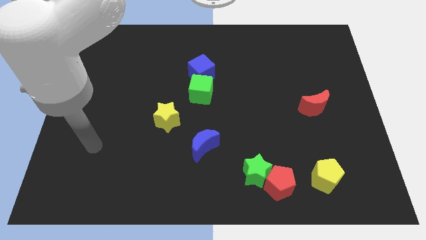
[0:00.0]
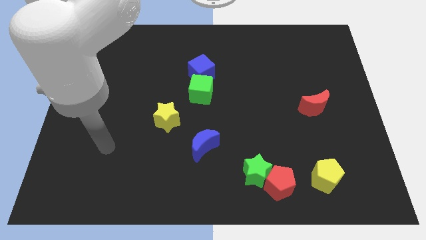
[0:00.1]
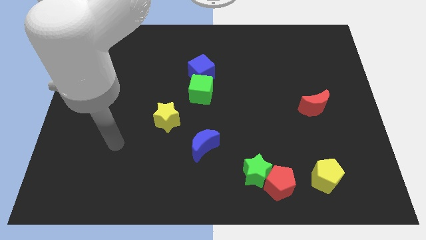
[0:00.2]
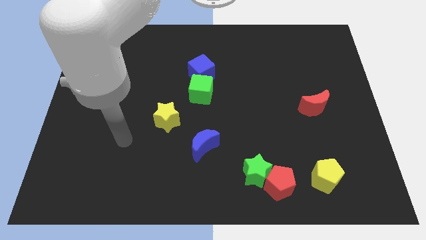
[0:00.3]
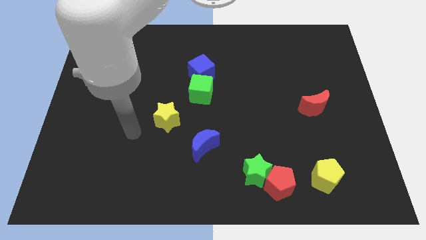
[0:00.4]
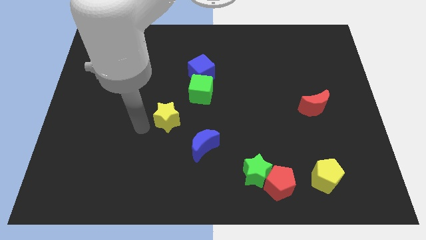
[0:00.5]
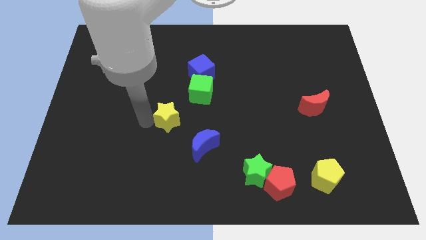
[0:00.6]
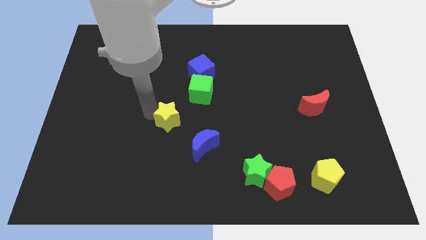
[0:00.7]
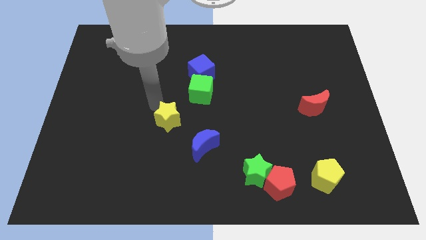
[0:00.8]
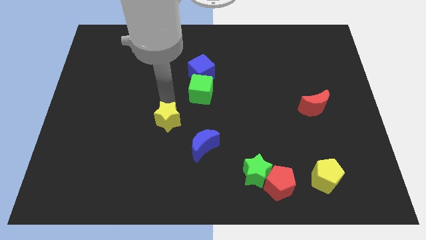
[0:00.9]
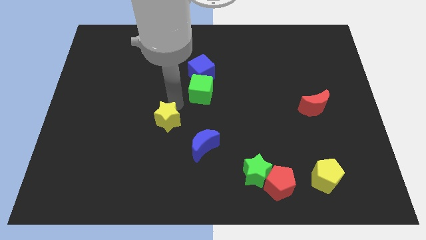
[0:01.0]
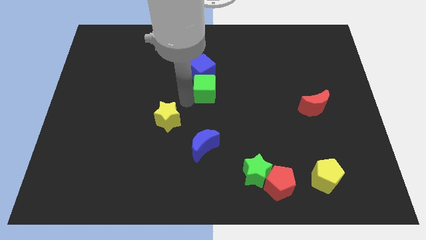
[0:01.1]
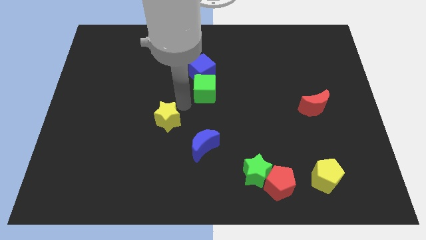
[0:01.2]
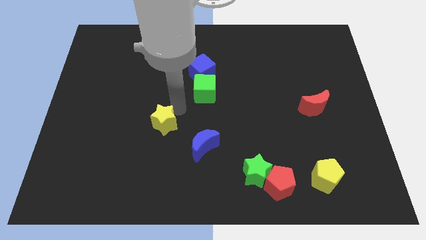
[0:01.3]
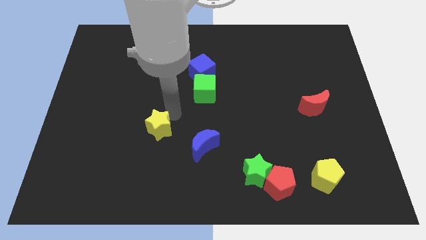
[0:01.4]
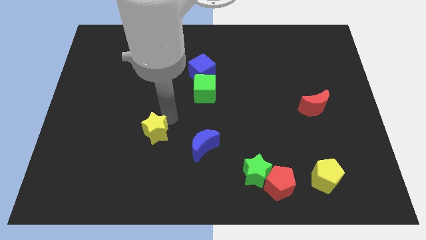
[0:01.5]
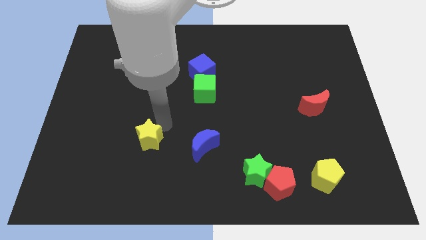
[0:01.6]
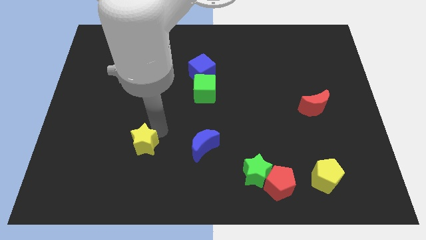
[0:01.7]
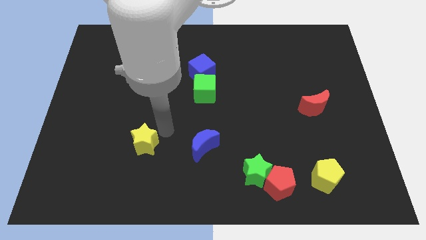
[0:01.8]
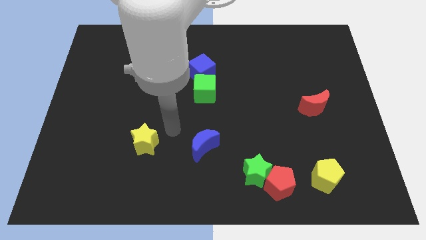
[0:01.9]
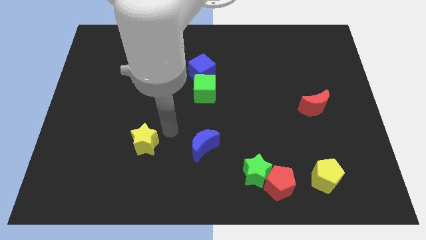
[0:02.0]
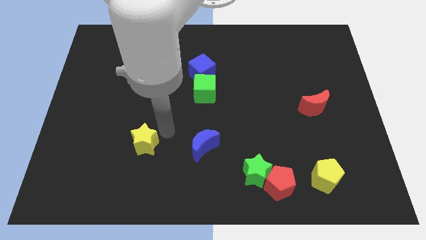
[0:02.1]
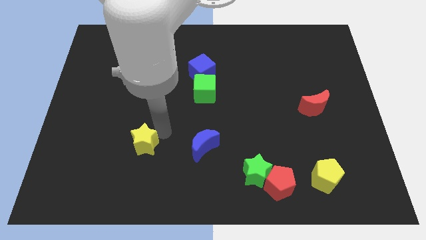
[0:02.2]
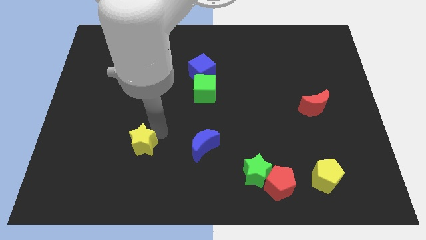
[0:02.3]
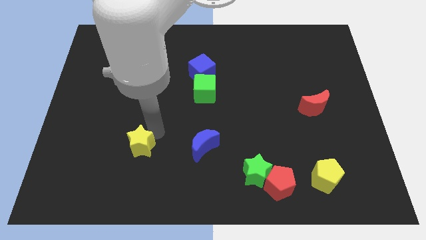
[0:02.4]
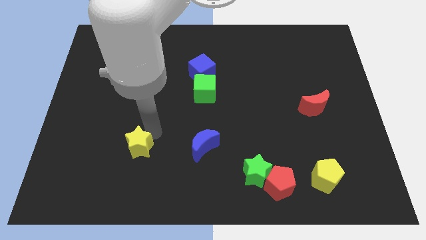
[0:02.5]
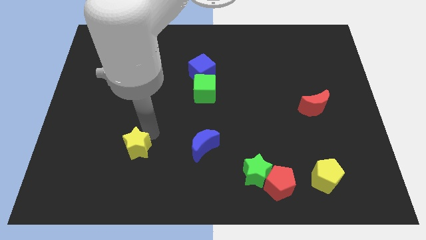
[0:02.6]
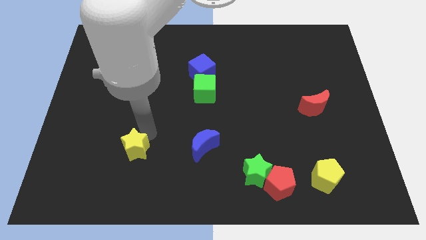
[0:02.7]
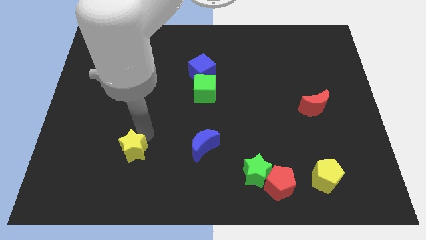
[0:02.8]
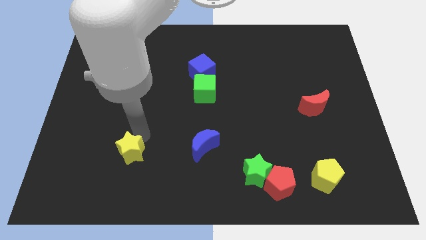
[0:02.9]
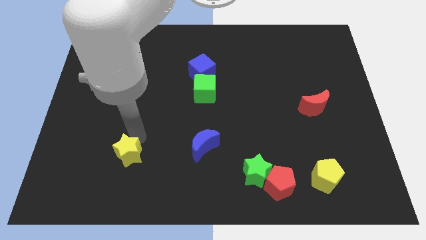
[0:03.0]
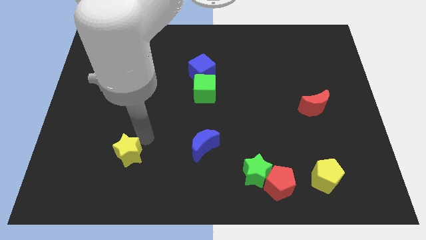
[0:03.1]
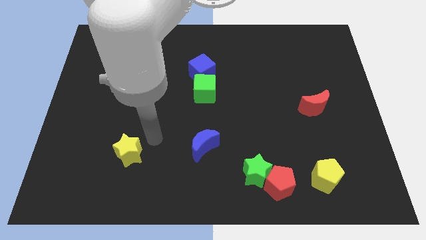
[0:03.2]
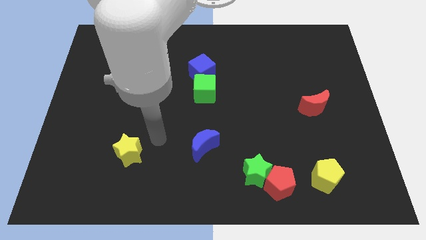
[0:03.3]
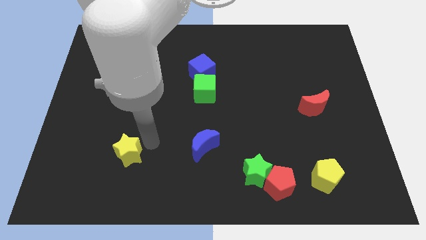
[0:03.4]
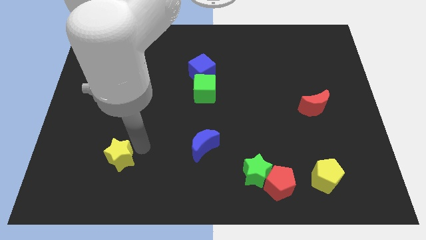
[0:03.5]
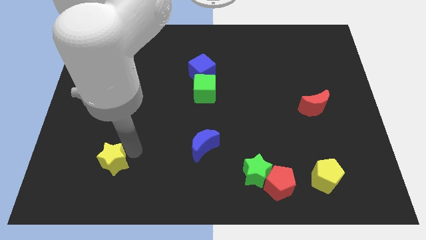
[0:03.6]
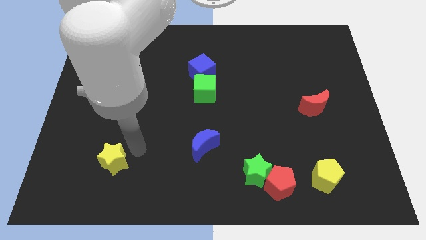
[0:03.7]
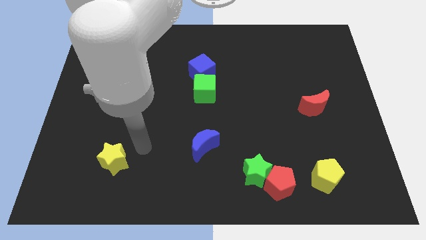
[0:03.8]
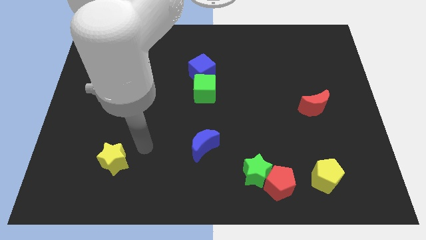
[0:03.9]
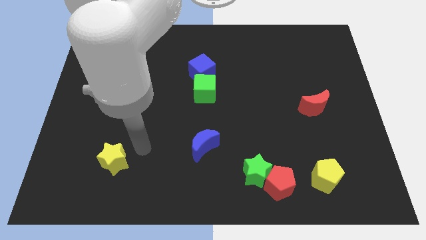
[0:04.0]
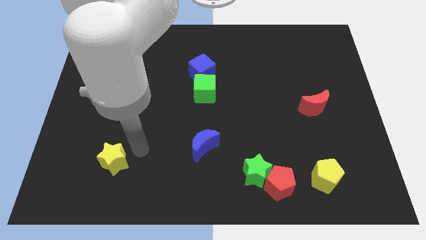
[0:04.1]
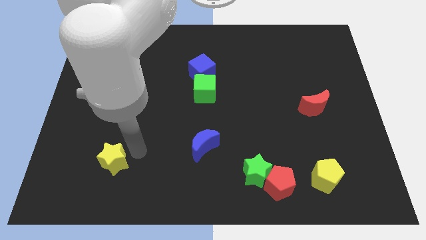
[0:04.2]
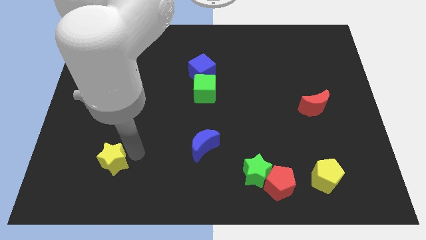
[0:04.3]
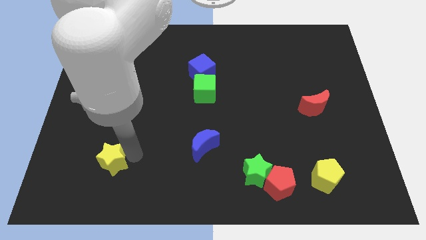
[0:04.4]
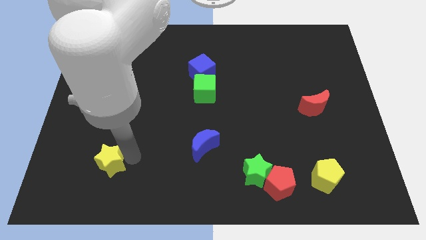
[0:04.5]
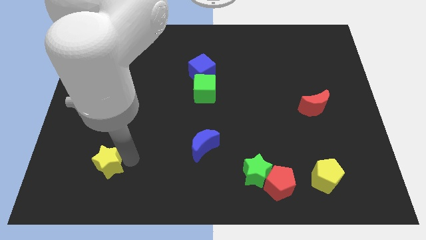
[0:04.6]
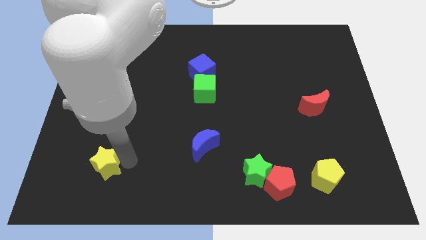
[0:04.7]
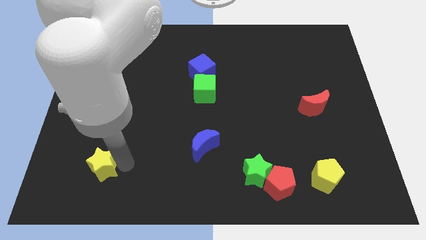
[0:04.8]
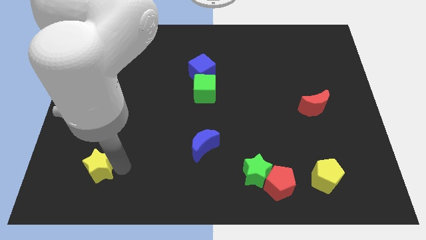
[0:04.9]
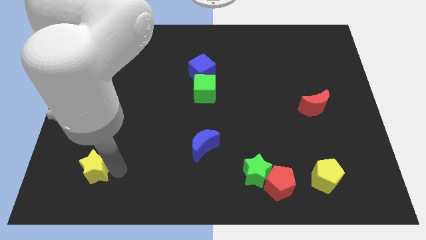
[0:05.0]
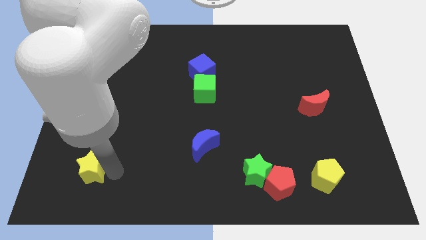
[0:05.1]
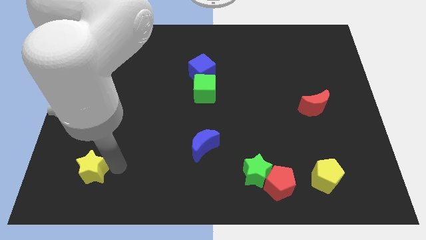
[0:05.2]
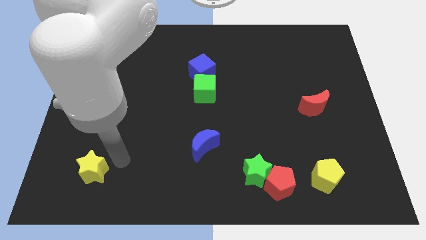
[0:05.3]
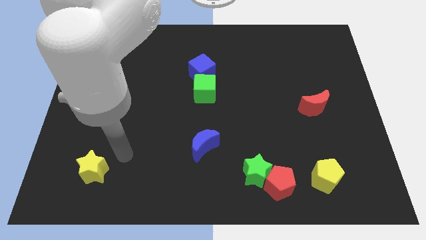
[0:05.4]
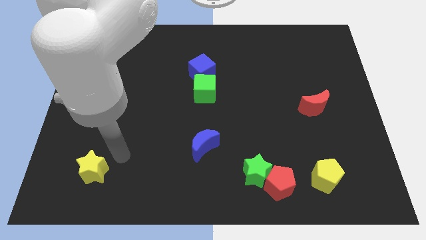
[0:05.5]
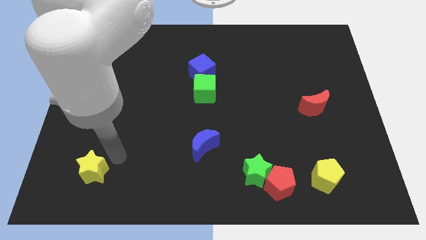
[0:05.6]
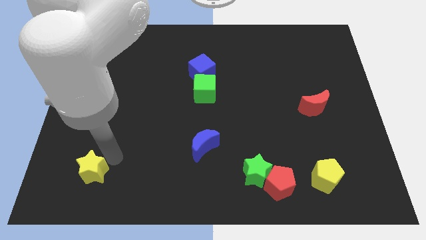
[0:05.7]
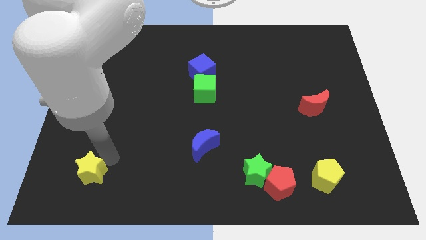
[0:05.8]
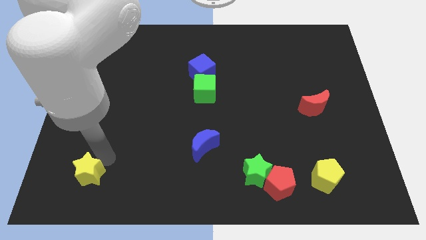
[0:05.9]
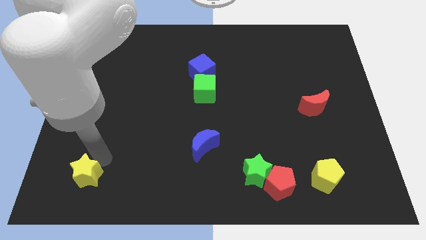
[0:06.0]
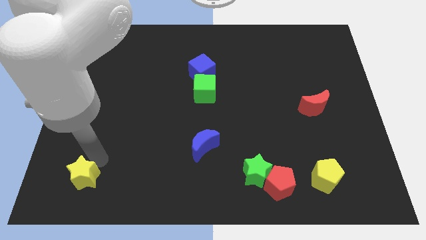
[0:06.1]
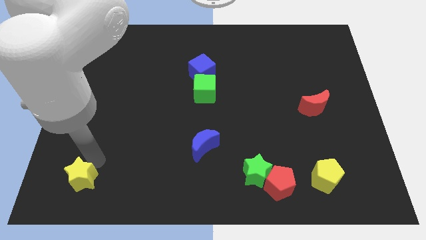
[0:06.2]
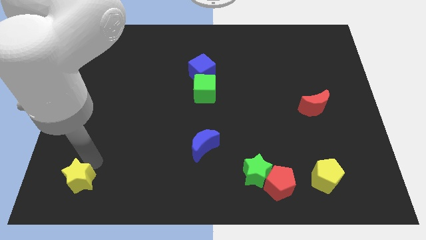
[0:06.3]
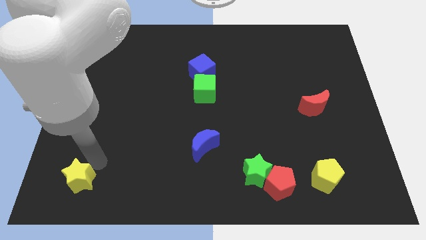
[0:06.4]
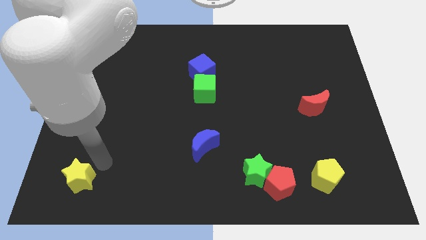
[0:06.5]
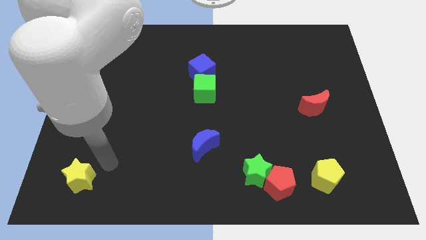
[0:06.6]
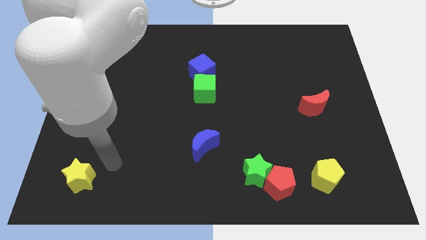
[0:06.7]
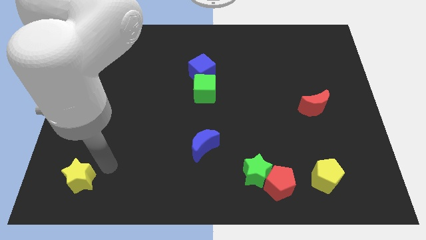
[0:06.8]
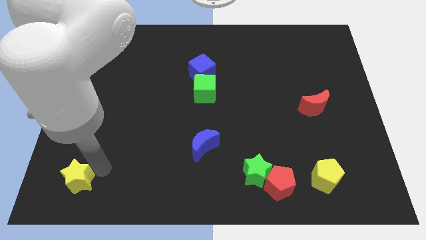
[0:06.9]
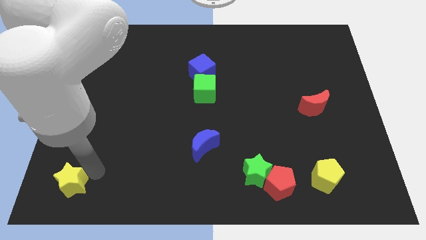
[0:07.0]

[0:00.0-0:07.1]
push the yellow star to the bottom left of the board
